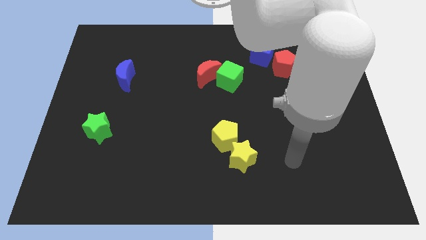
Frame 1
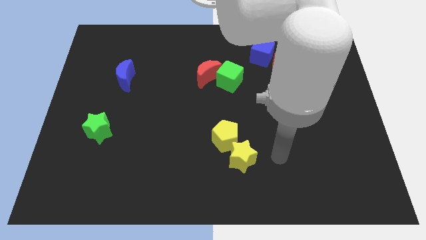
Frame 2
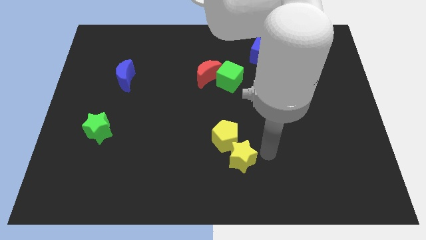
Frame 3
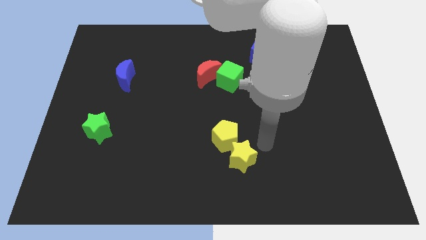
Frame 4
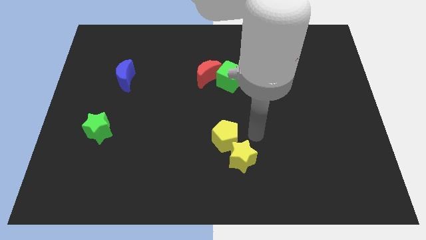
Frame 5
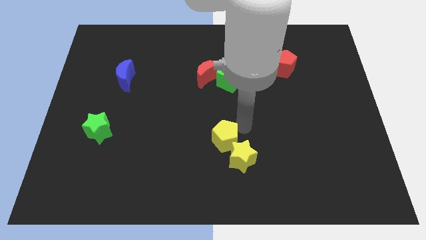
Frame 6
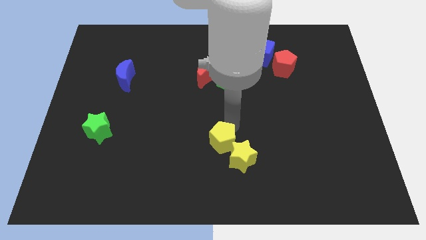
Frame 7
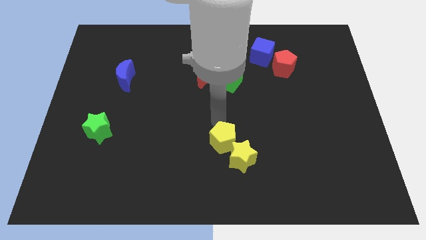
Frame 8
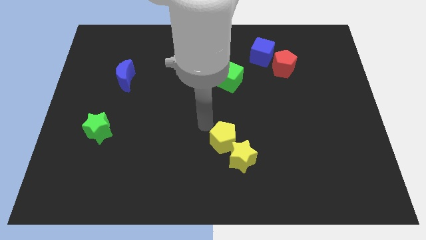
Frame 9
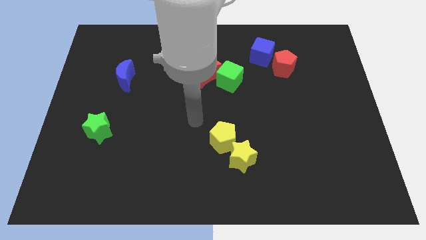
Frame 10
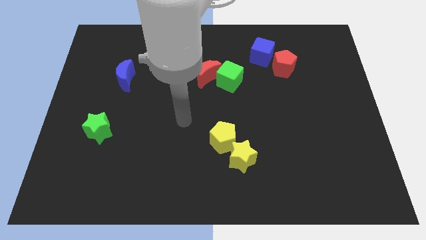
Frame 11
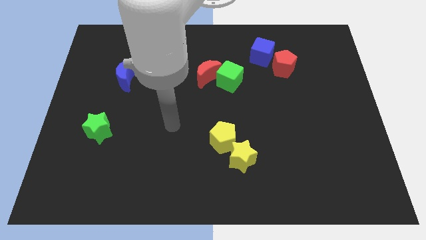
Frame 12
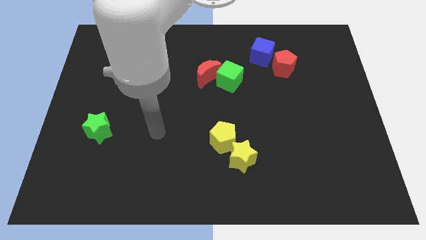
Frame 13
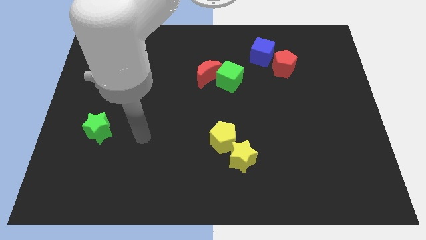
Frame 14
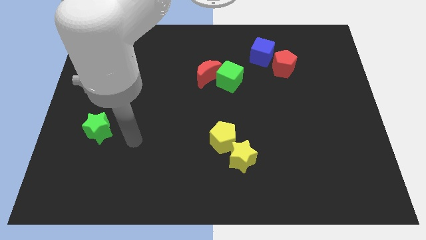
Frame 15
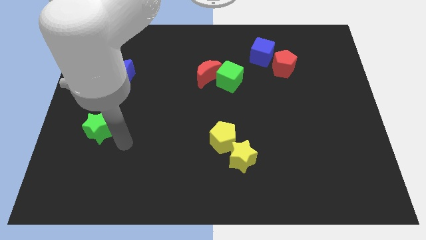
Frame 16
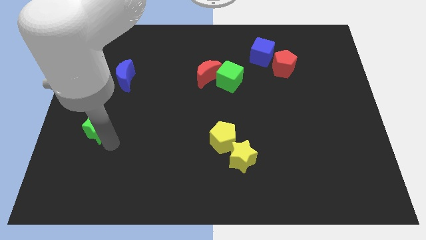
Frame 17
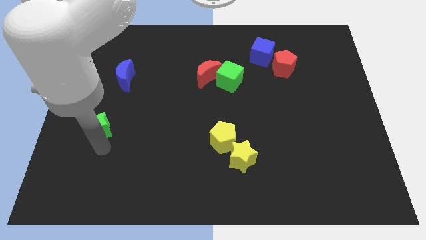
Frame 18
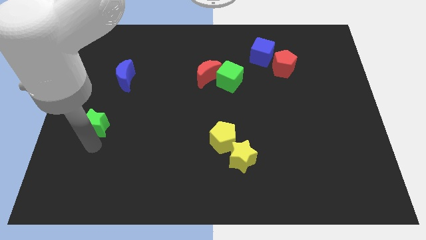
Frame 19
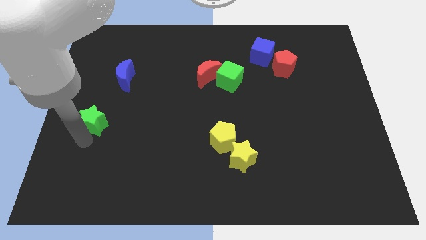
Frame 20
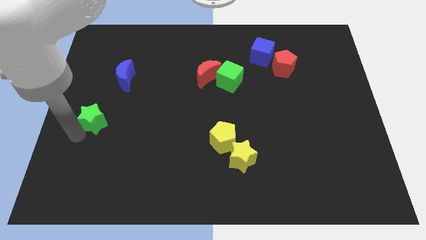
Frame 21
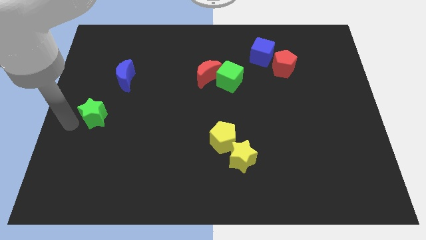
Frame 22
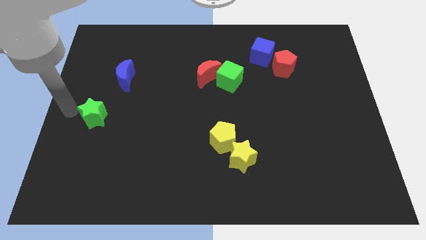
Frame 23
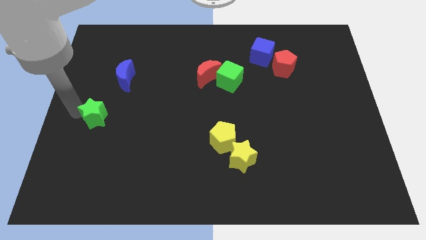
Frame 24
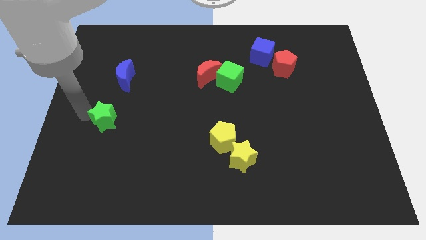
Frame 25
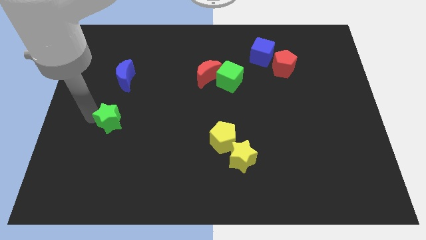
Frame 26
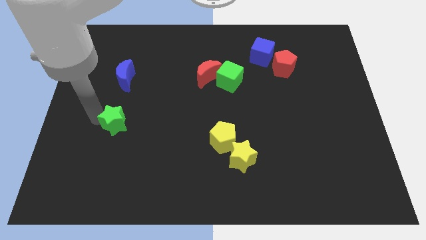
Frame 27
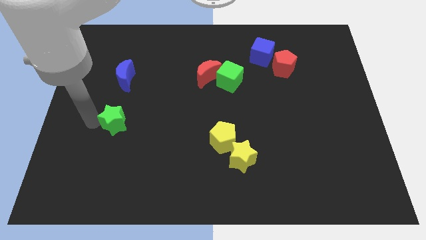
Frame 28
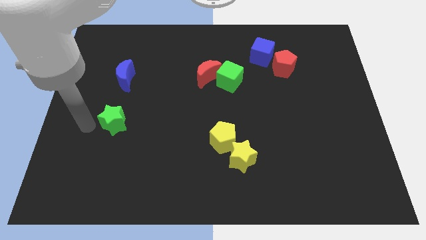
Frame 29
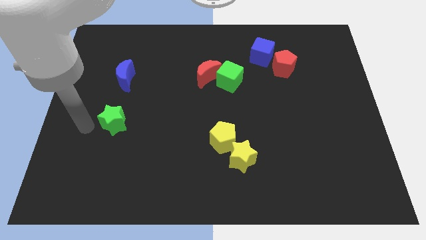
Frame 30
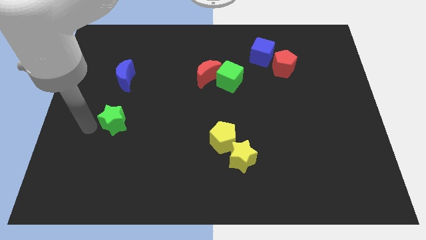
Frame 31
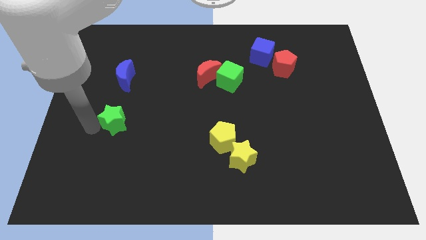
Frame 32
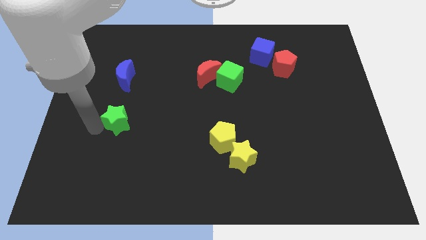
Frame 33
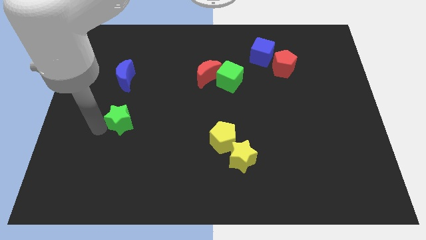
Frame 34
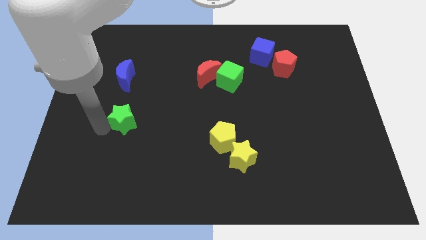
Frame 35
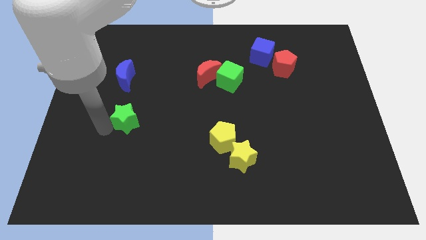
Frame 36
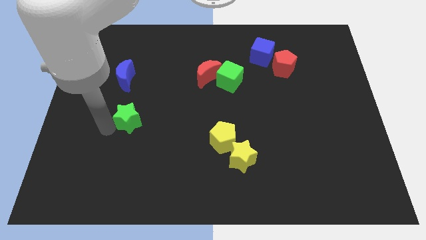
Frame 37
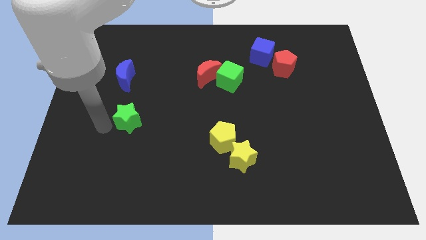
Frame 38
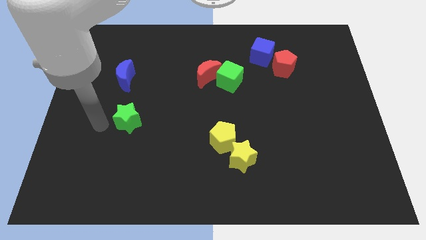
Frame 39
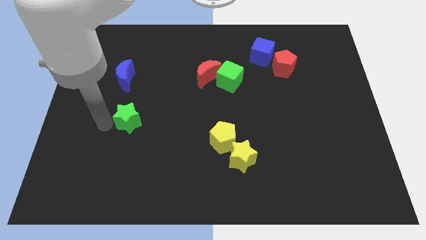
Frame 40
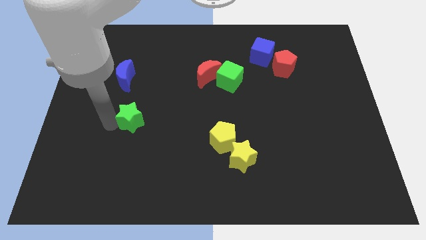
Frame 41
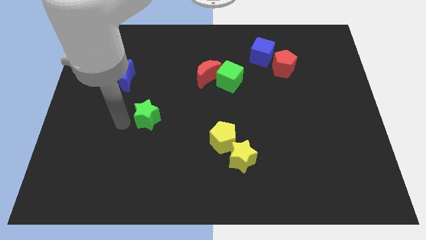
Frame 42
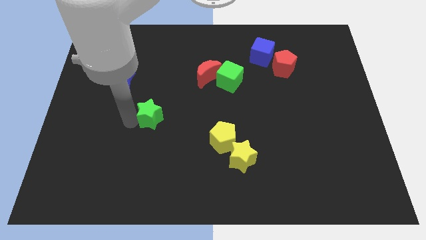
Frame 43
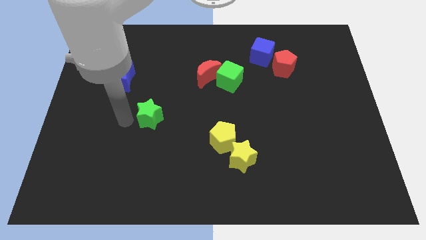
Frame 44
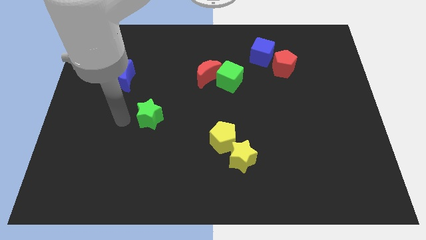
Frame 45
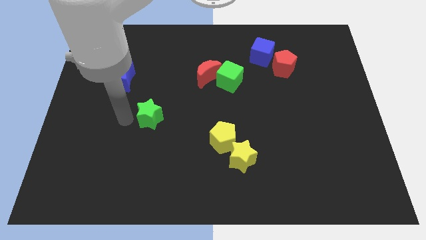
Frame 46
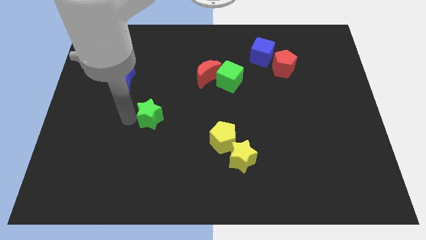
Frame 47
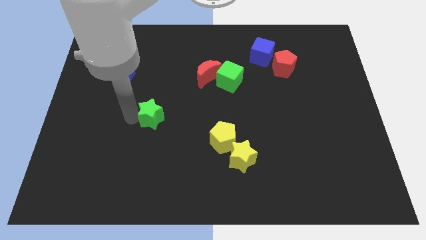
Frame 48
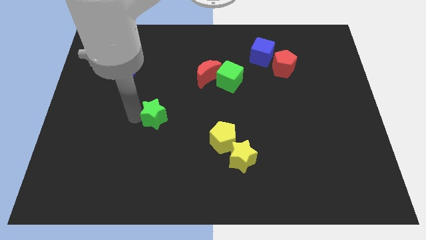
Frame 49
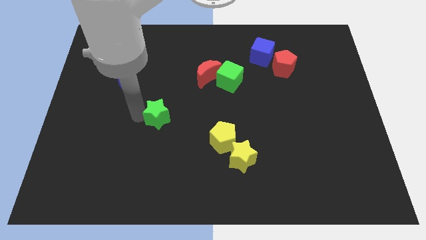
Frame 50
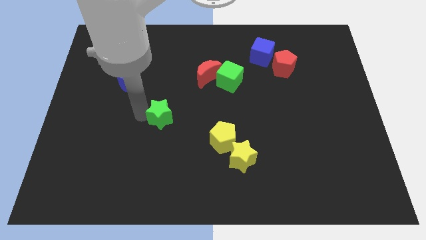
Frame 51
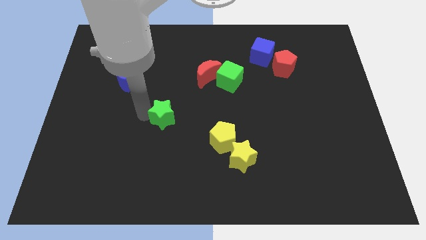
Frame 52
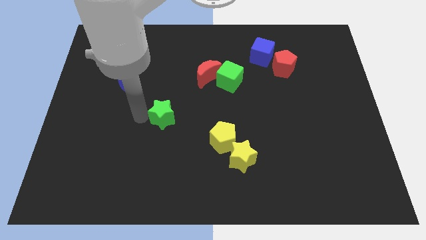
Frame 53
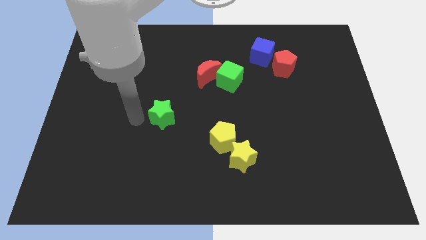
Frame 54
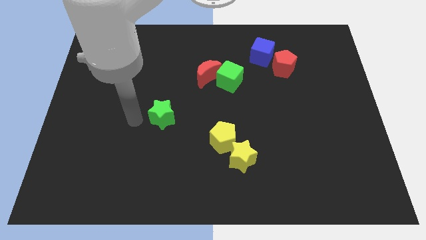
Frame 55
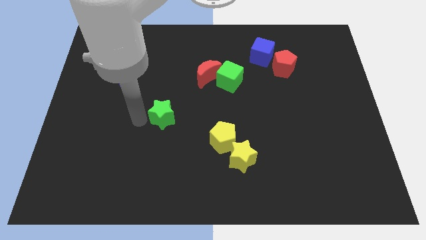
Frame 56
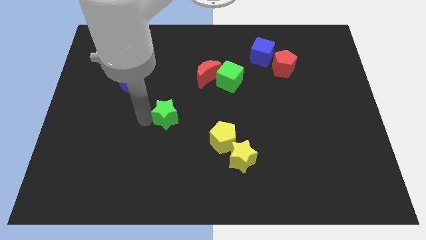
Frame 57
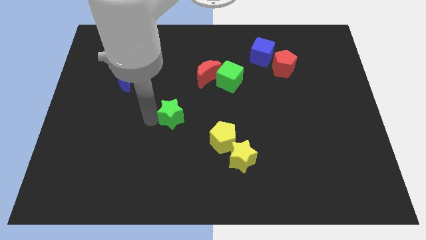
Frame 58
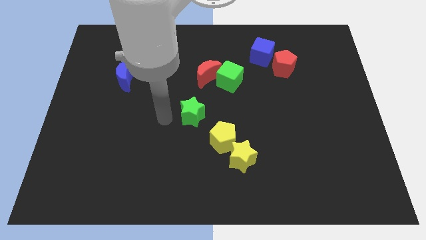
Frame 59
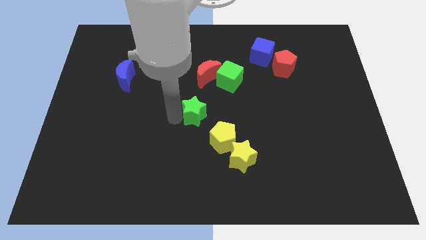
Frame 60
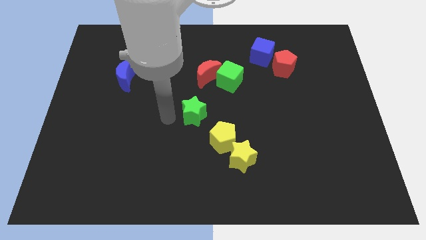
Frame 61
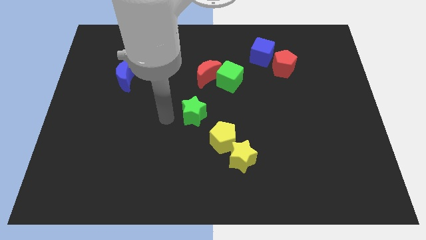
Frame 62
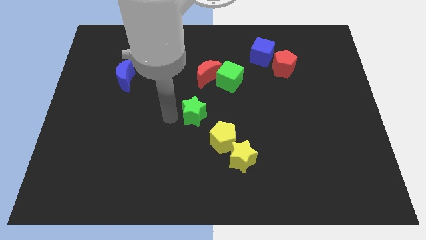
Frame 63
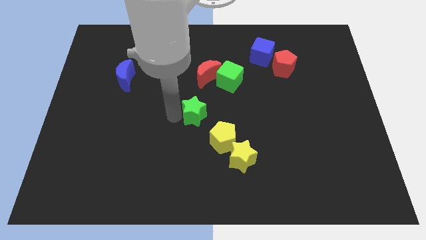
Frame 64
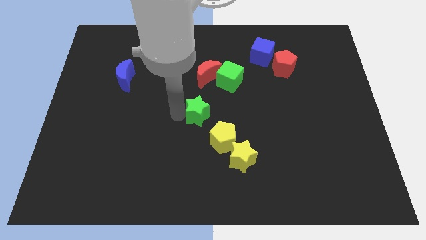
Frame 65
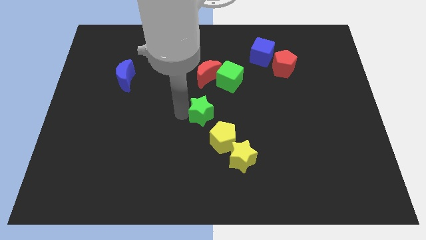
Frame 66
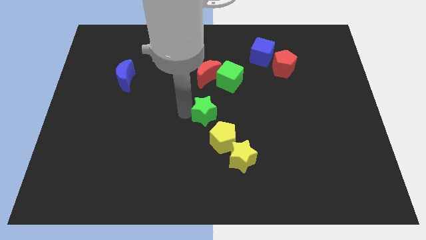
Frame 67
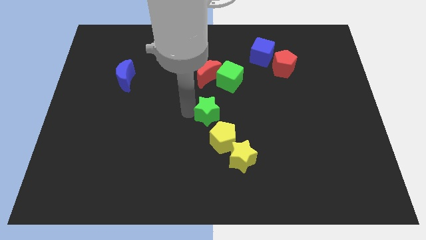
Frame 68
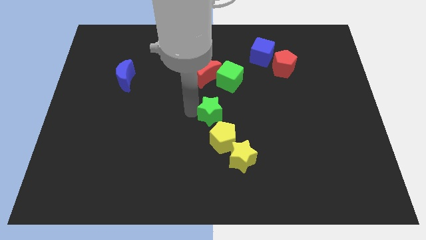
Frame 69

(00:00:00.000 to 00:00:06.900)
push the green star below the green cube

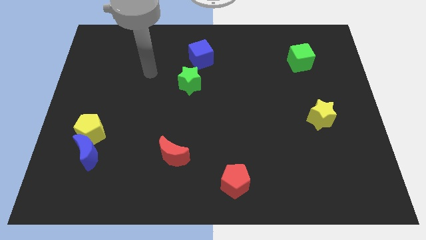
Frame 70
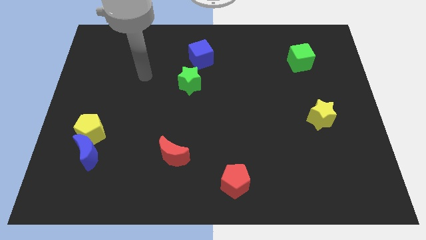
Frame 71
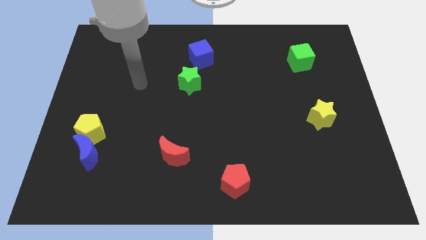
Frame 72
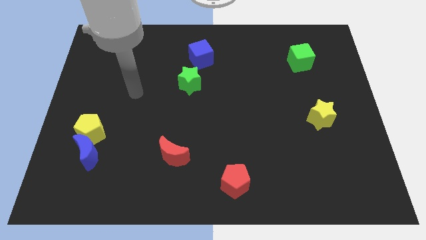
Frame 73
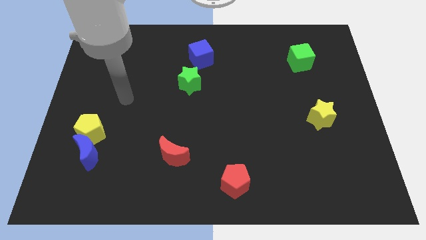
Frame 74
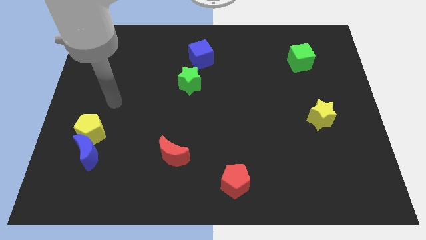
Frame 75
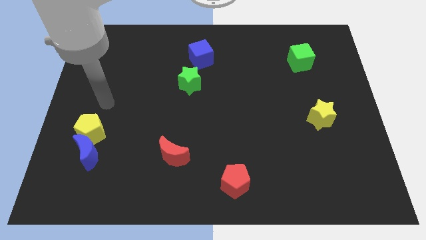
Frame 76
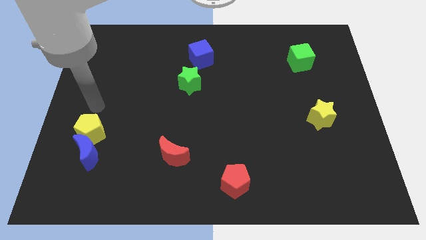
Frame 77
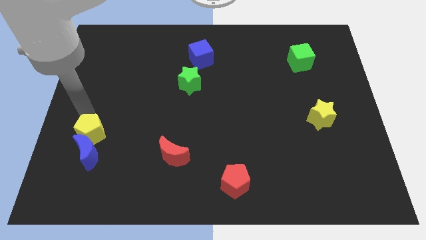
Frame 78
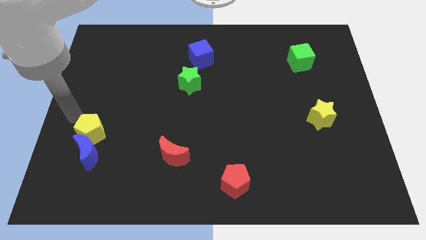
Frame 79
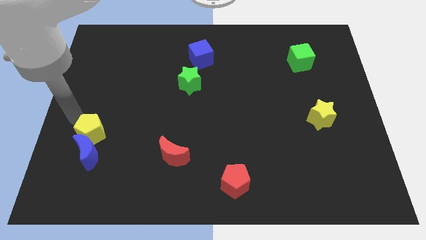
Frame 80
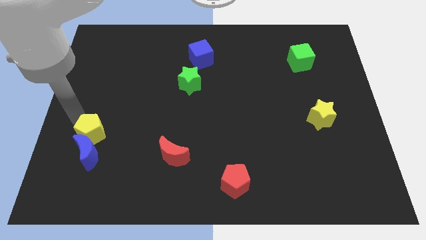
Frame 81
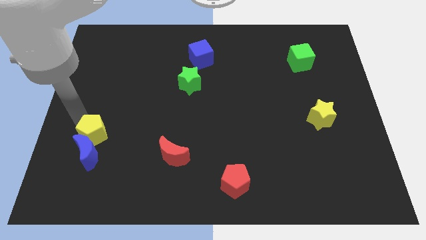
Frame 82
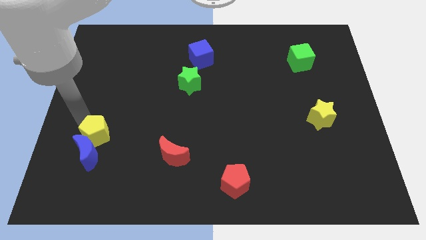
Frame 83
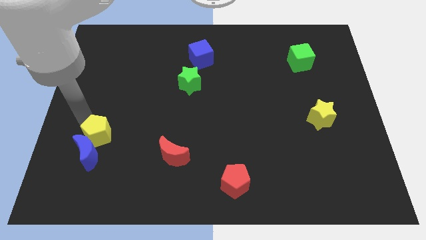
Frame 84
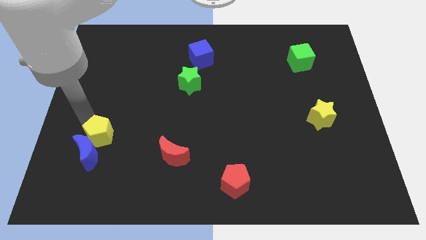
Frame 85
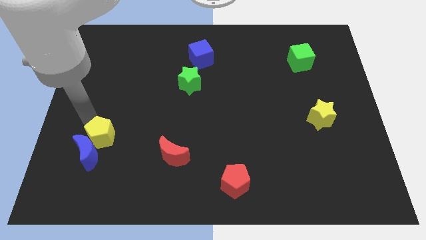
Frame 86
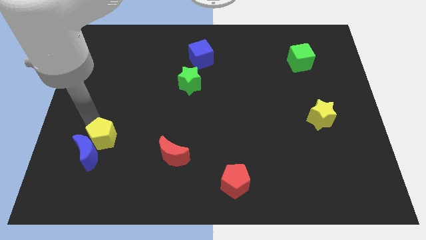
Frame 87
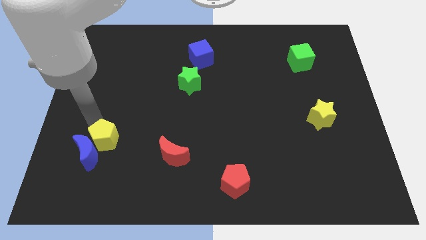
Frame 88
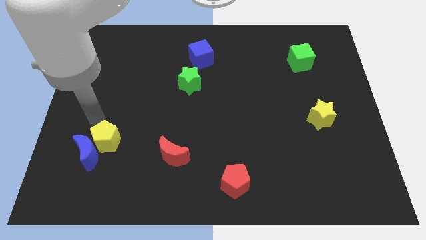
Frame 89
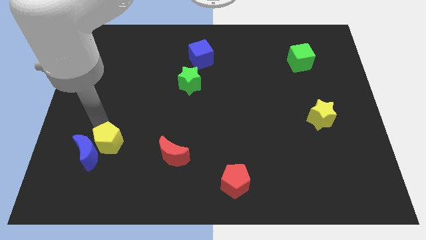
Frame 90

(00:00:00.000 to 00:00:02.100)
put the yellow pentagon left of the red moon
